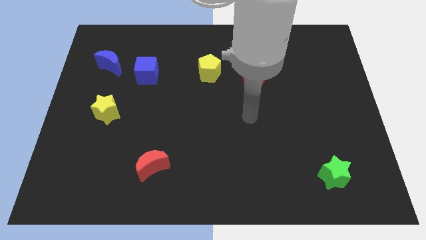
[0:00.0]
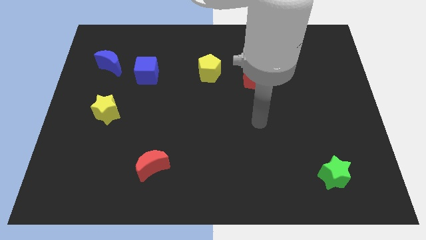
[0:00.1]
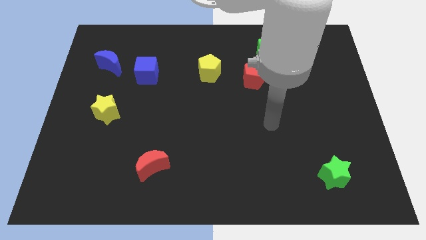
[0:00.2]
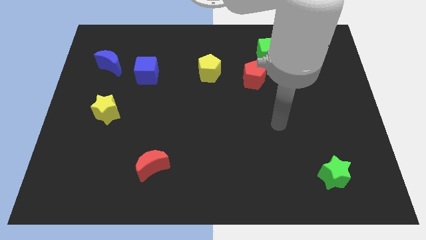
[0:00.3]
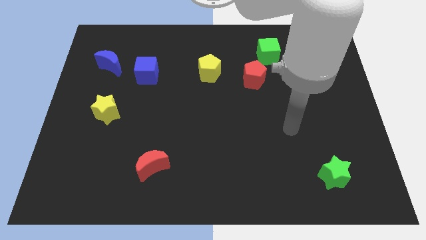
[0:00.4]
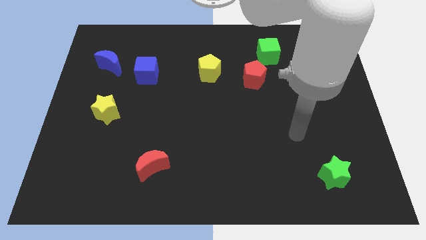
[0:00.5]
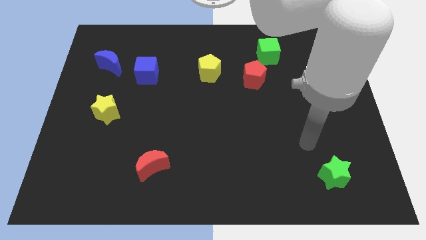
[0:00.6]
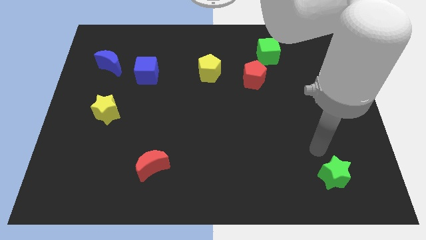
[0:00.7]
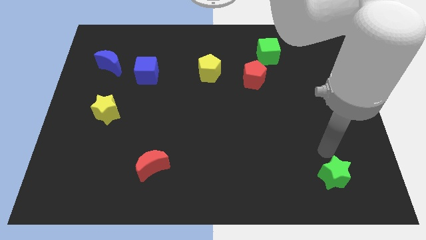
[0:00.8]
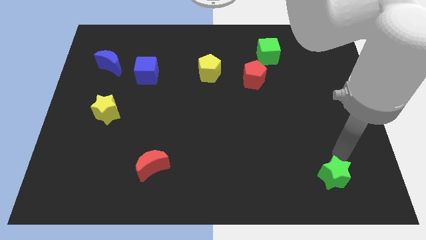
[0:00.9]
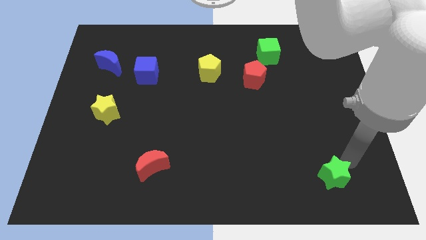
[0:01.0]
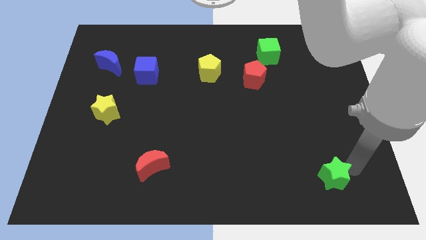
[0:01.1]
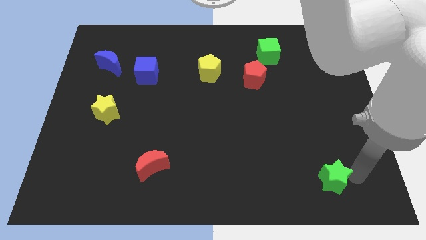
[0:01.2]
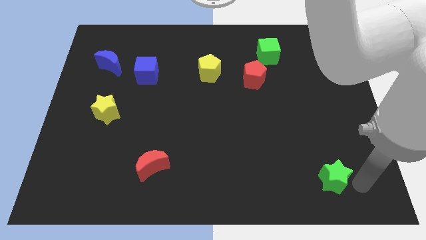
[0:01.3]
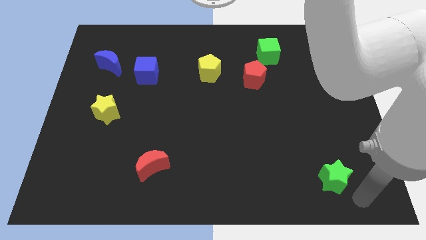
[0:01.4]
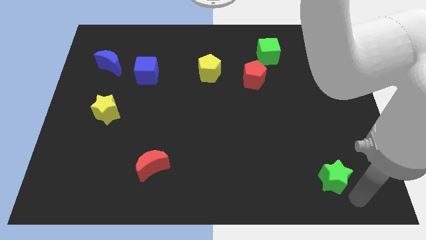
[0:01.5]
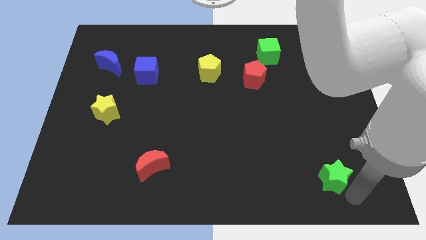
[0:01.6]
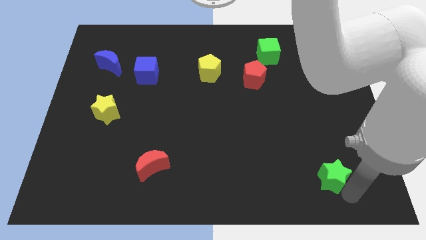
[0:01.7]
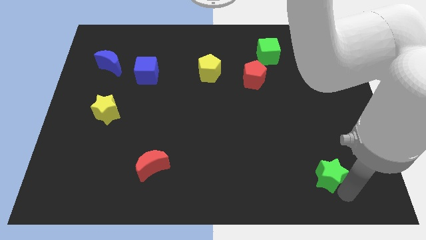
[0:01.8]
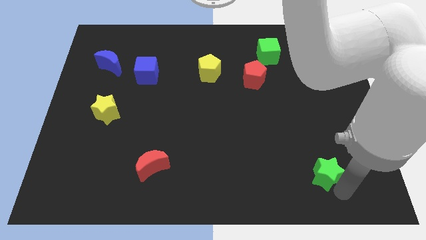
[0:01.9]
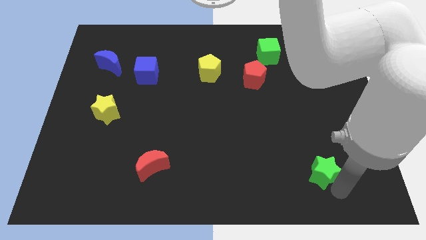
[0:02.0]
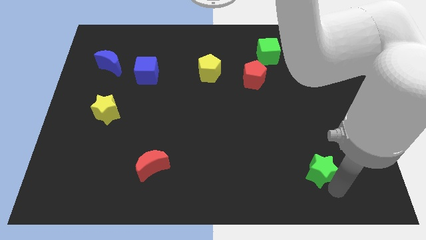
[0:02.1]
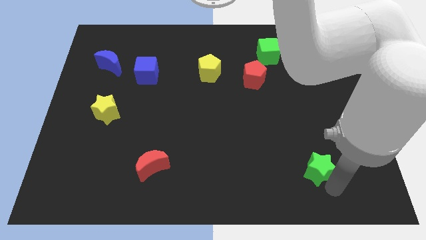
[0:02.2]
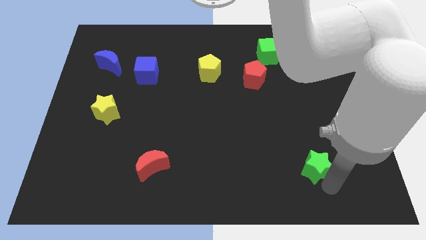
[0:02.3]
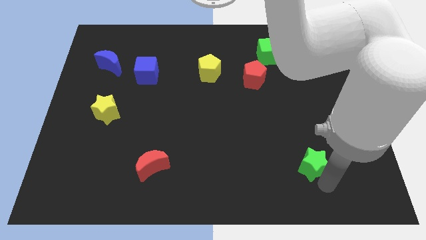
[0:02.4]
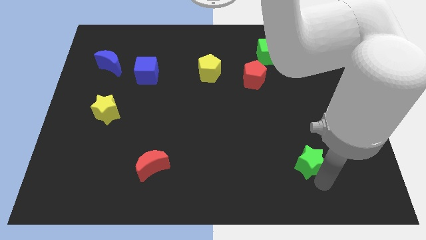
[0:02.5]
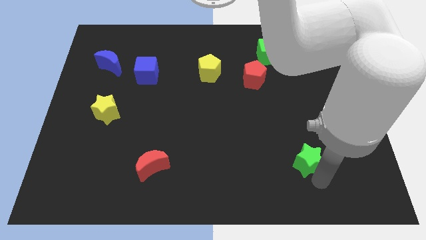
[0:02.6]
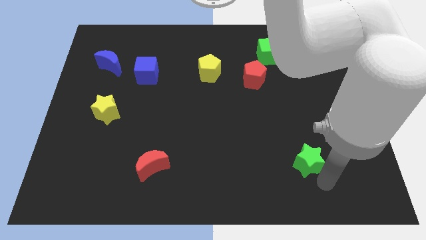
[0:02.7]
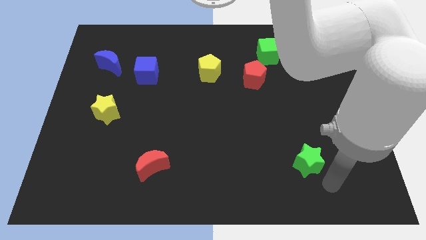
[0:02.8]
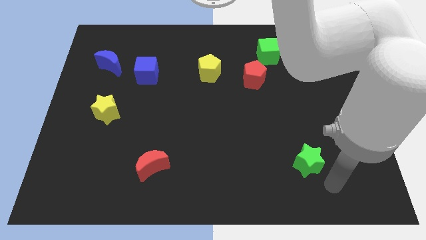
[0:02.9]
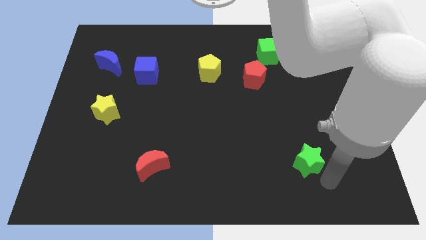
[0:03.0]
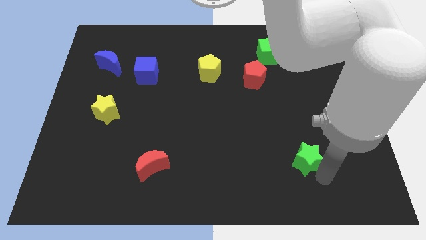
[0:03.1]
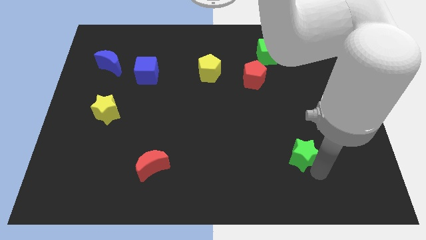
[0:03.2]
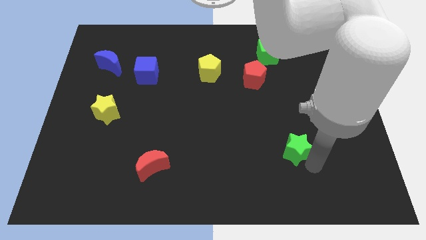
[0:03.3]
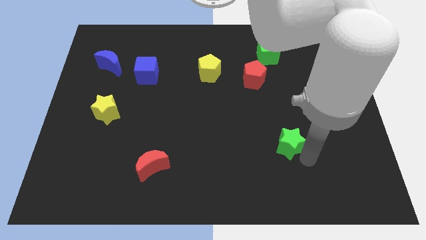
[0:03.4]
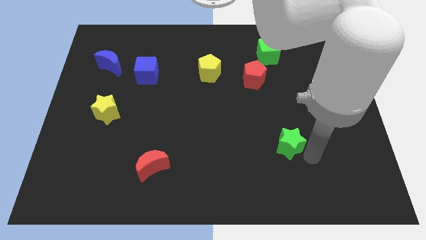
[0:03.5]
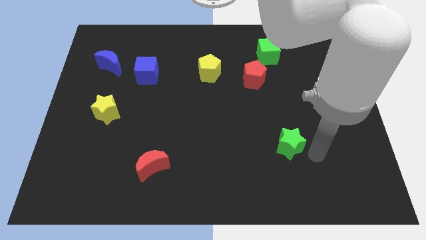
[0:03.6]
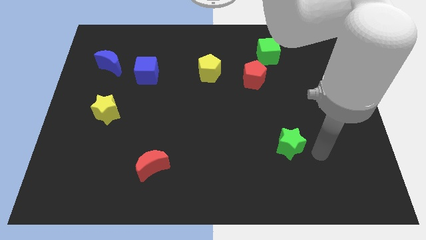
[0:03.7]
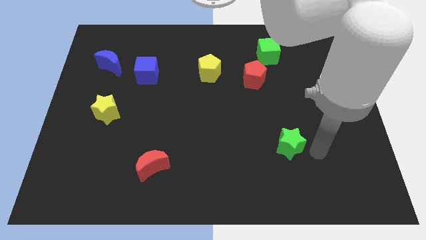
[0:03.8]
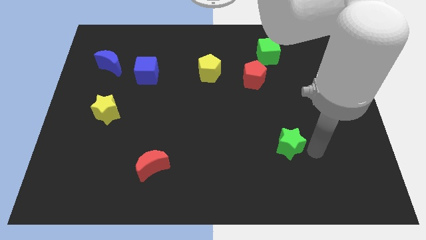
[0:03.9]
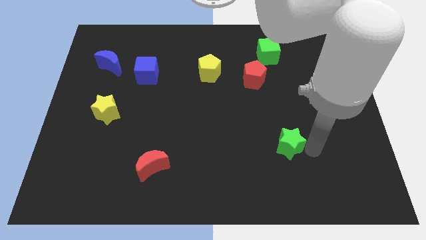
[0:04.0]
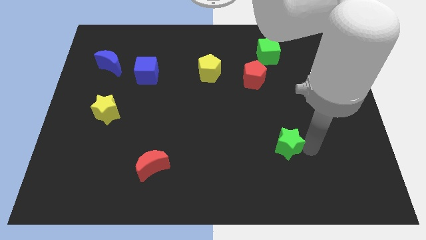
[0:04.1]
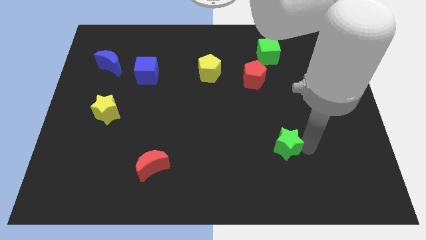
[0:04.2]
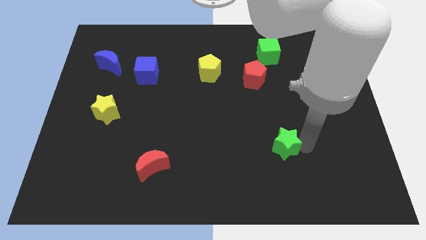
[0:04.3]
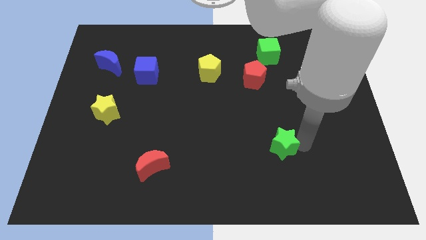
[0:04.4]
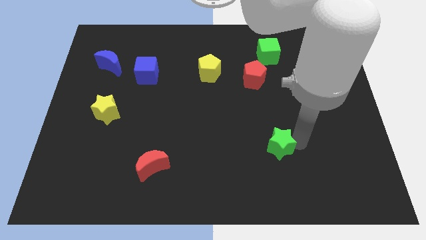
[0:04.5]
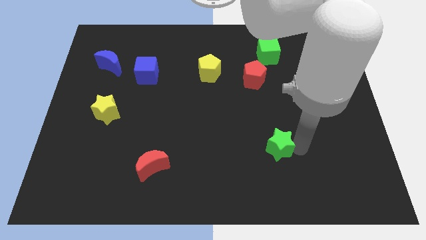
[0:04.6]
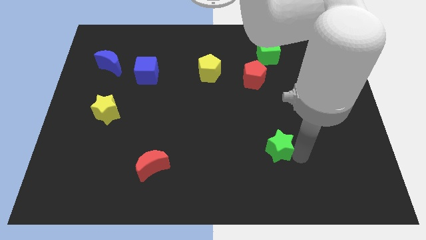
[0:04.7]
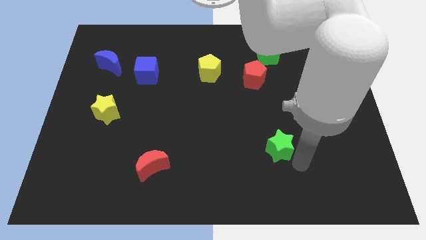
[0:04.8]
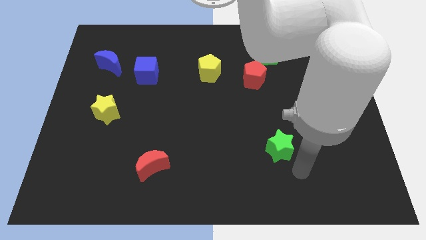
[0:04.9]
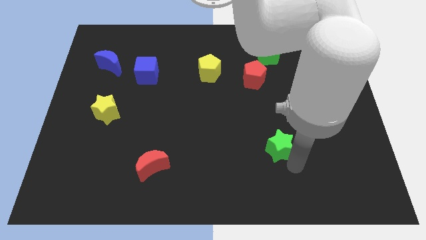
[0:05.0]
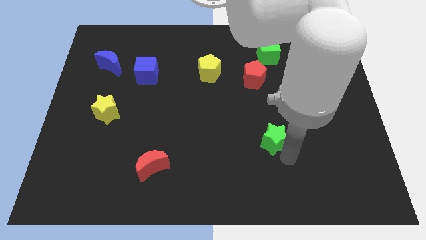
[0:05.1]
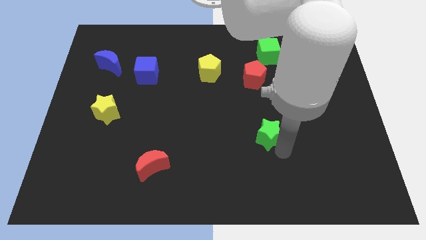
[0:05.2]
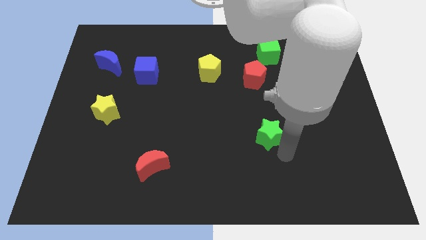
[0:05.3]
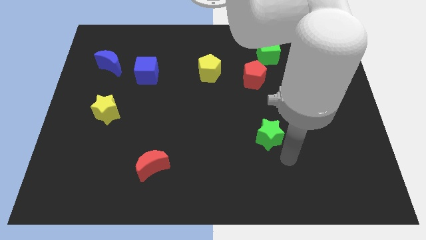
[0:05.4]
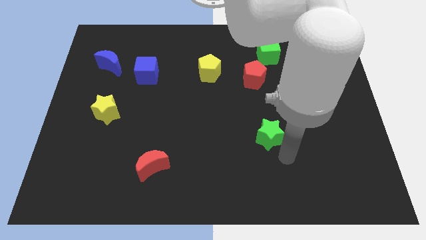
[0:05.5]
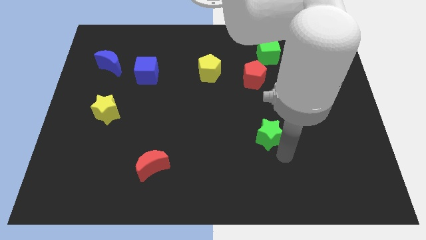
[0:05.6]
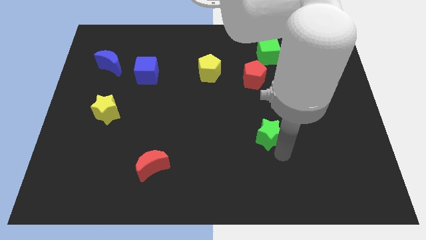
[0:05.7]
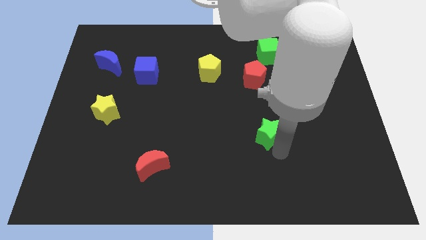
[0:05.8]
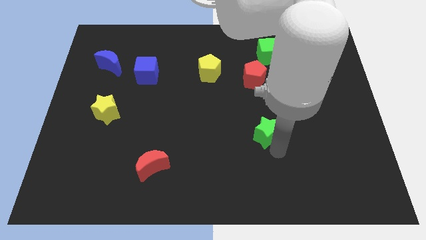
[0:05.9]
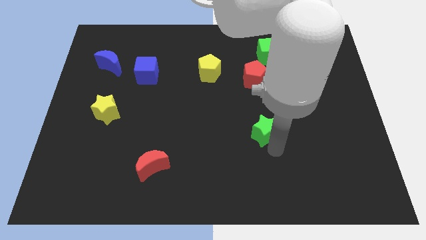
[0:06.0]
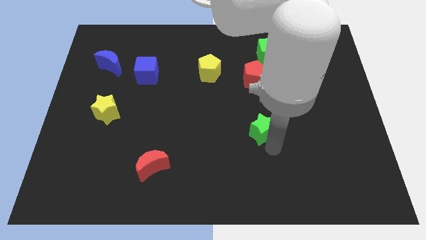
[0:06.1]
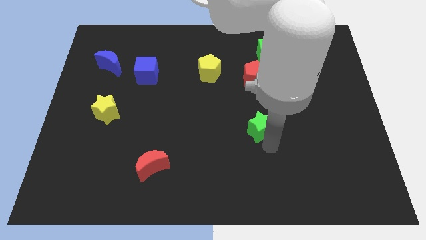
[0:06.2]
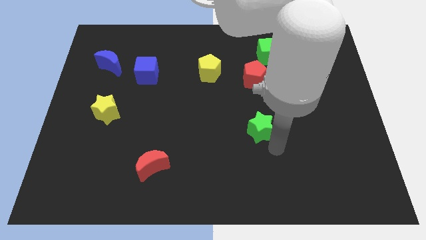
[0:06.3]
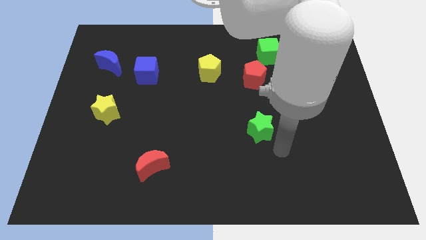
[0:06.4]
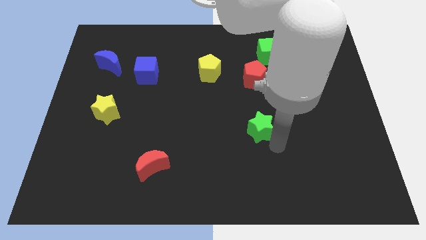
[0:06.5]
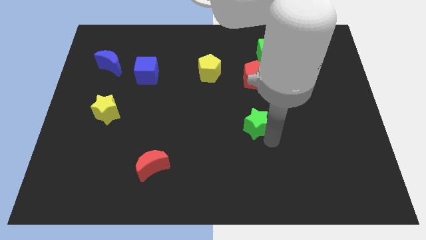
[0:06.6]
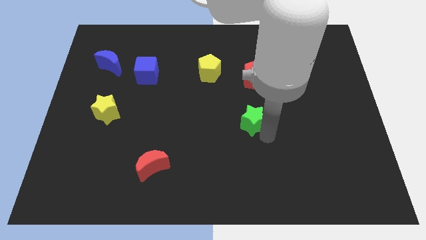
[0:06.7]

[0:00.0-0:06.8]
push the green star diagonally upwards and to the left

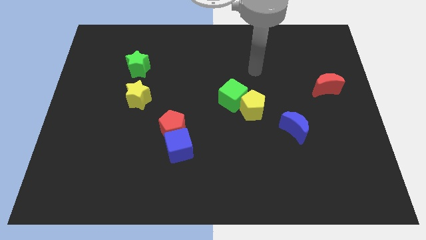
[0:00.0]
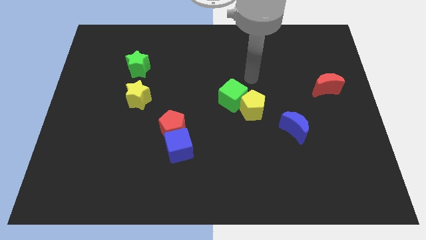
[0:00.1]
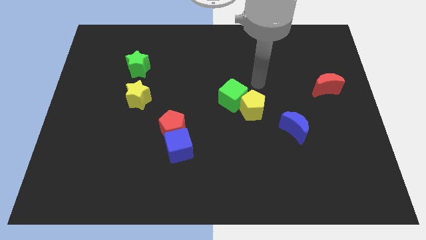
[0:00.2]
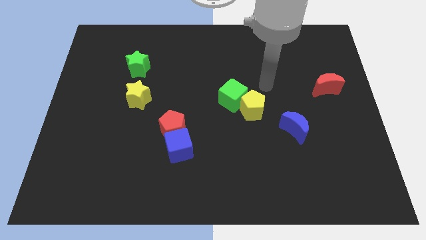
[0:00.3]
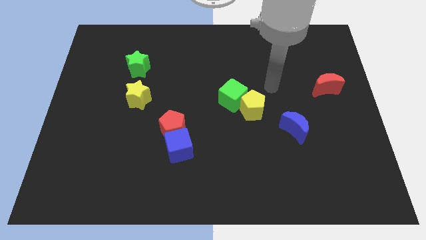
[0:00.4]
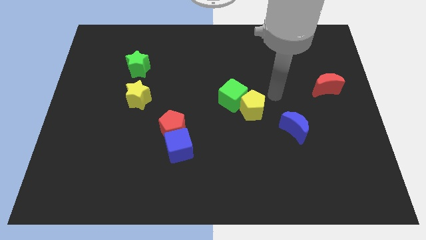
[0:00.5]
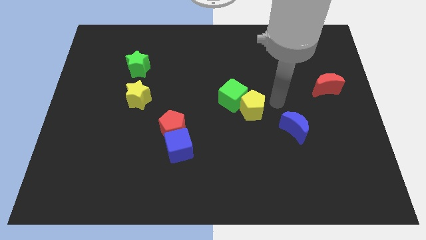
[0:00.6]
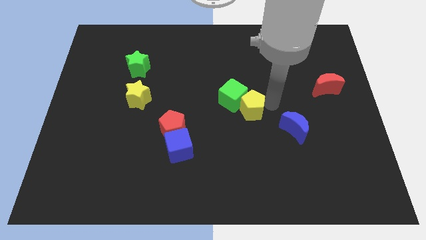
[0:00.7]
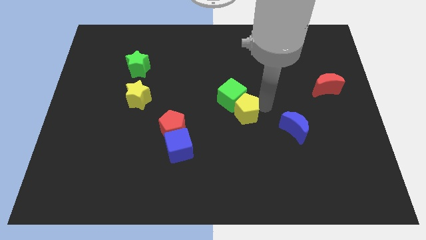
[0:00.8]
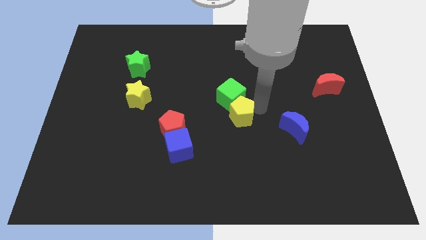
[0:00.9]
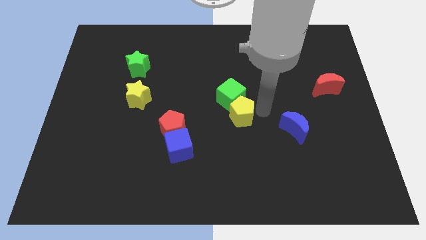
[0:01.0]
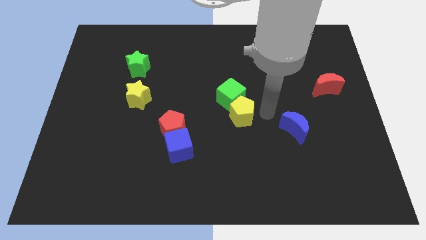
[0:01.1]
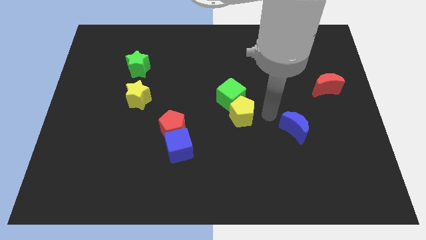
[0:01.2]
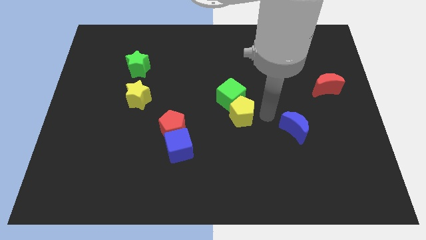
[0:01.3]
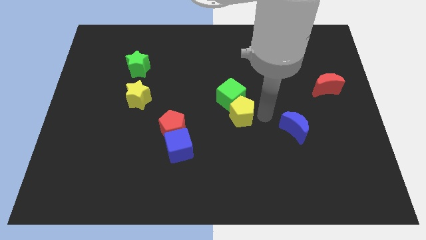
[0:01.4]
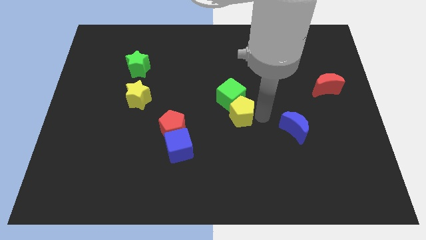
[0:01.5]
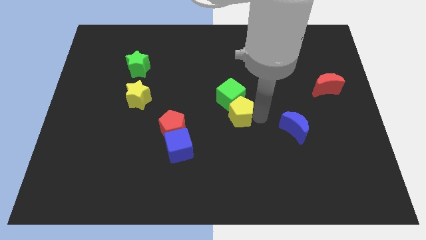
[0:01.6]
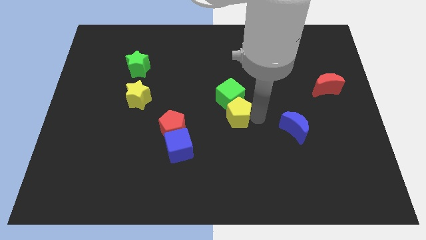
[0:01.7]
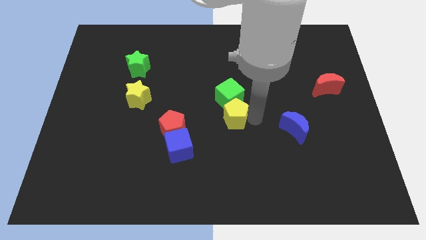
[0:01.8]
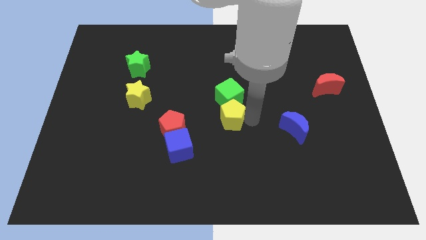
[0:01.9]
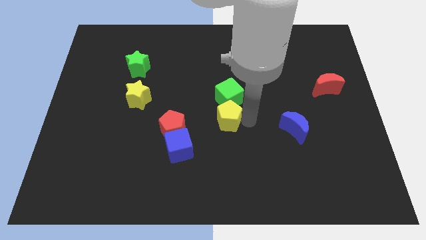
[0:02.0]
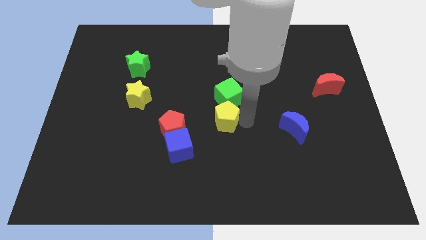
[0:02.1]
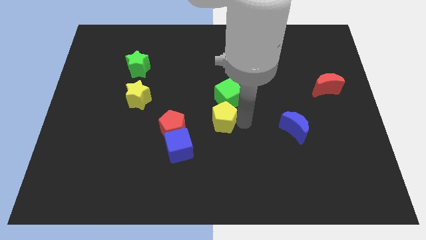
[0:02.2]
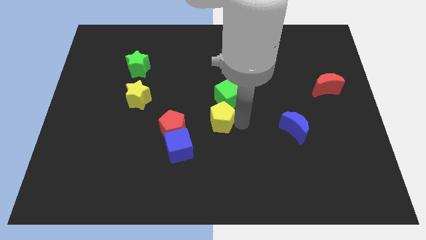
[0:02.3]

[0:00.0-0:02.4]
slide the yellow pentagon left a little
